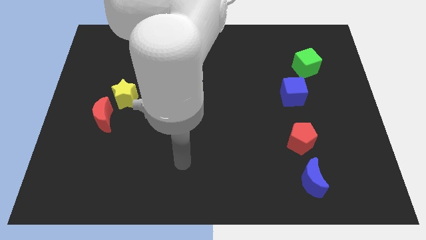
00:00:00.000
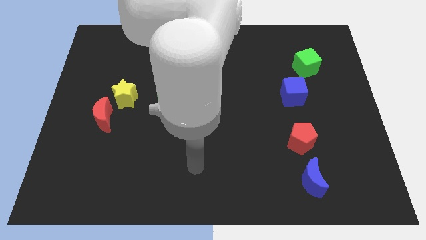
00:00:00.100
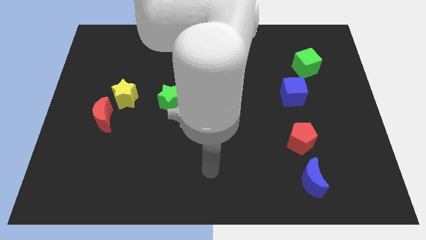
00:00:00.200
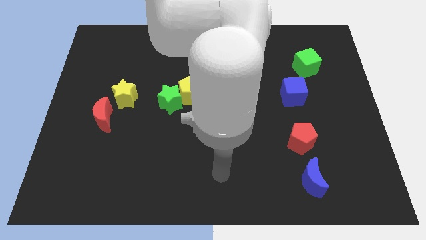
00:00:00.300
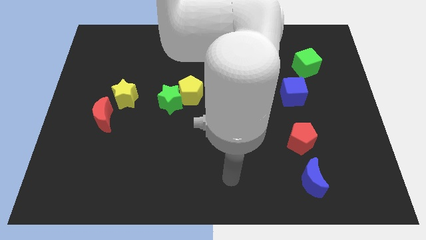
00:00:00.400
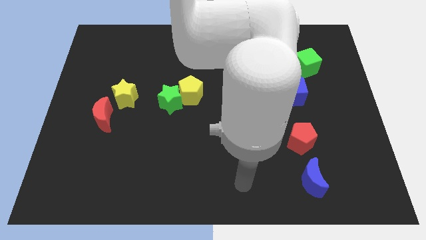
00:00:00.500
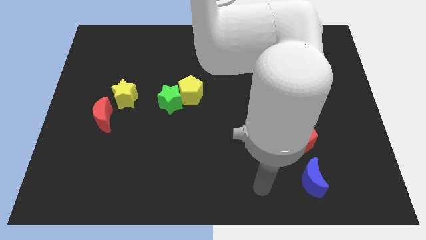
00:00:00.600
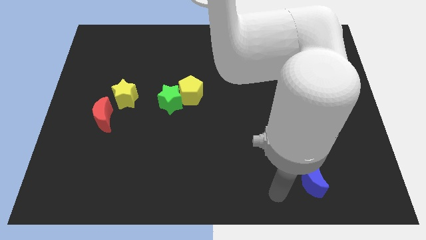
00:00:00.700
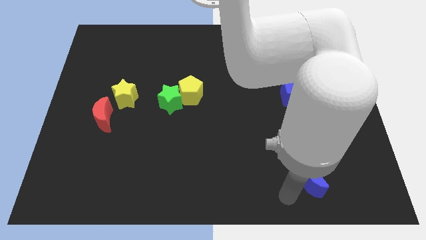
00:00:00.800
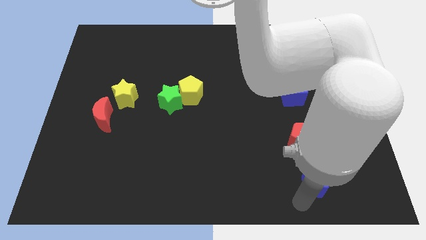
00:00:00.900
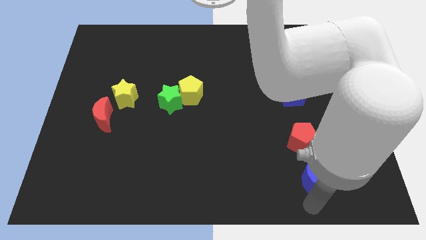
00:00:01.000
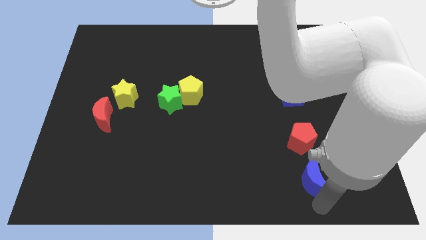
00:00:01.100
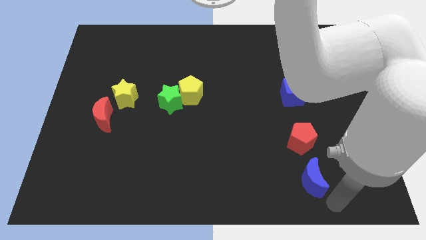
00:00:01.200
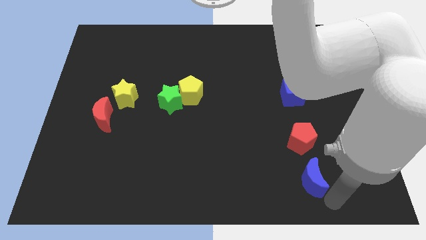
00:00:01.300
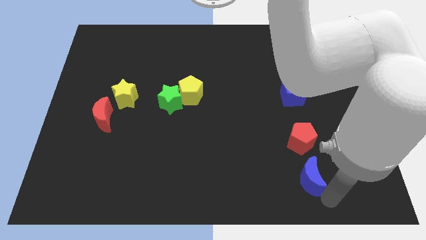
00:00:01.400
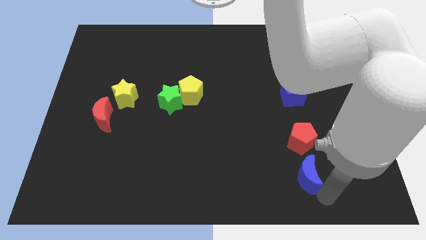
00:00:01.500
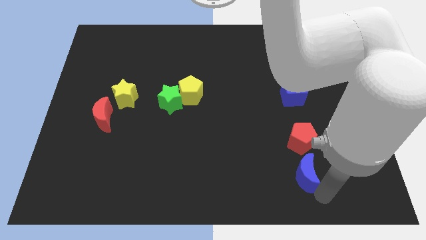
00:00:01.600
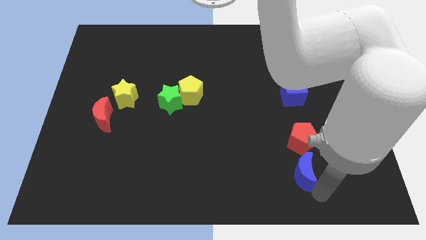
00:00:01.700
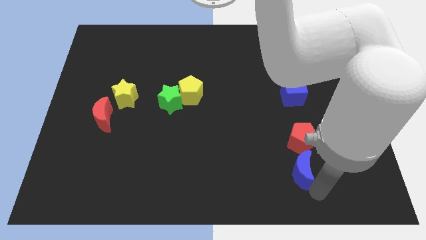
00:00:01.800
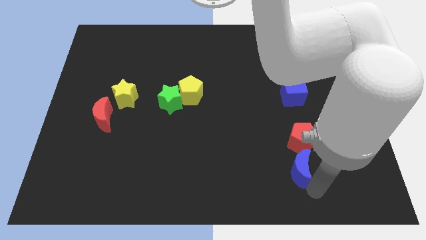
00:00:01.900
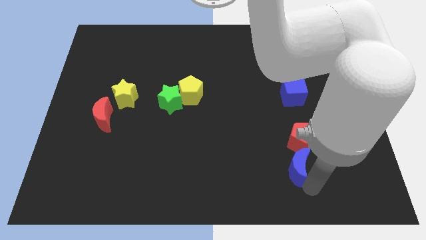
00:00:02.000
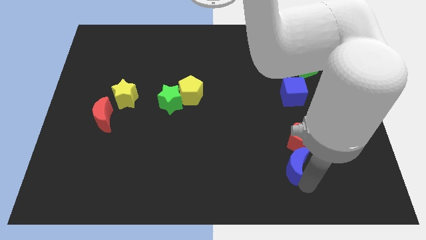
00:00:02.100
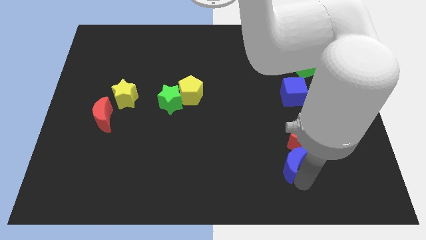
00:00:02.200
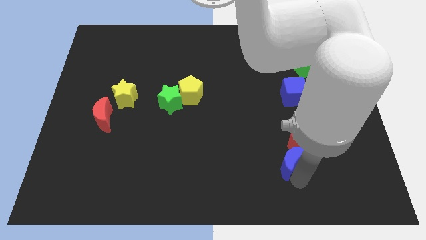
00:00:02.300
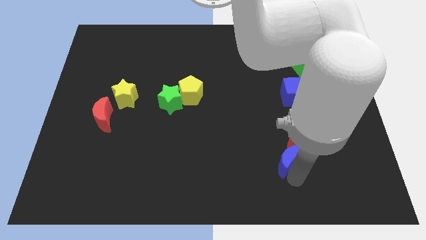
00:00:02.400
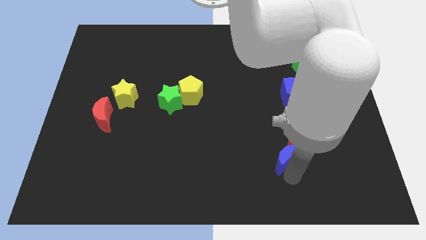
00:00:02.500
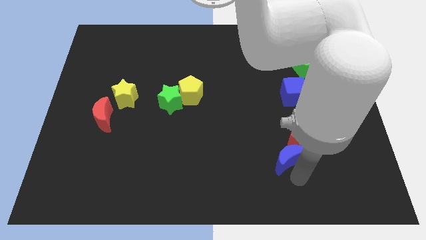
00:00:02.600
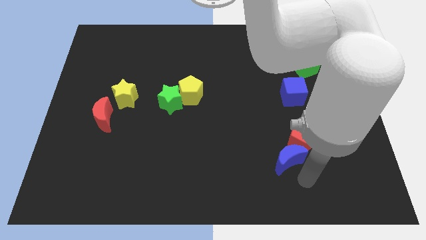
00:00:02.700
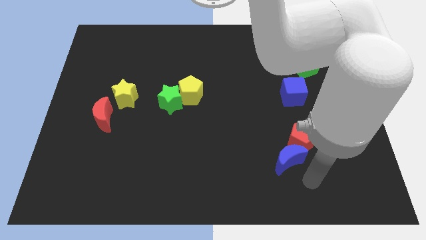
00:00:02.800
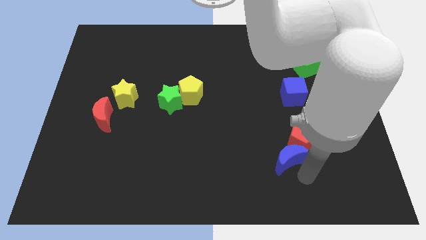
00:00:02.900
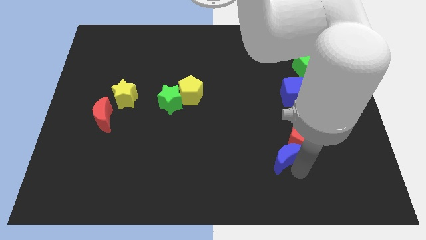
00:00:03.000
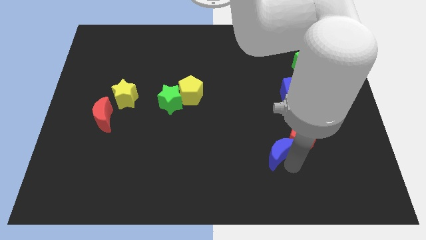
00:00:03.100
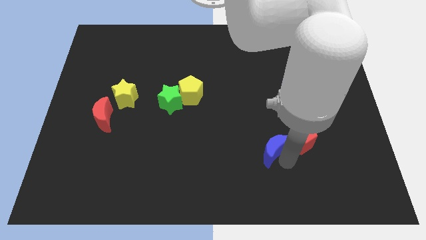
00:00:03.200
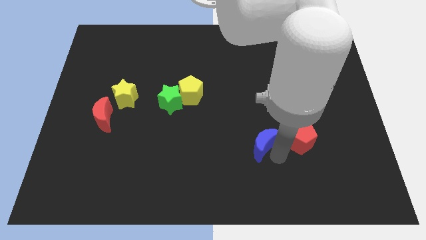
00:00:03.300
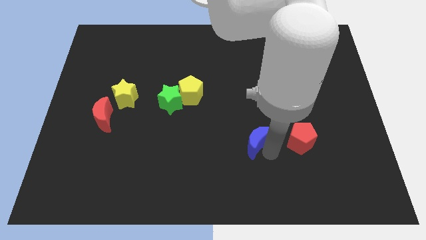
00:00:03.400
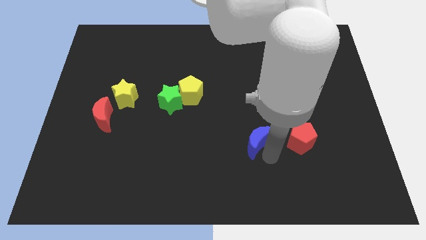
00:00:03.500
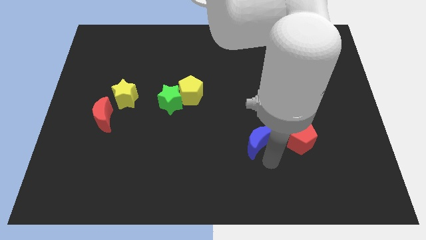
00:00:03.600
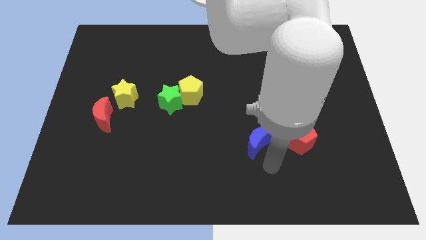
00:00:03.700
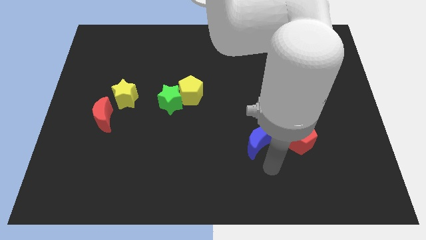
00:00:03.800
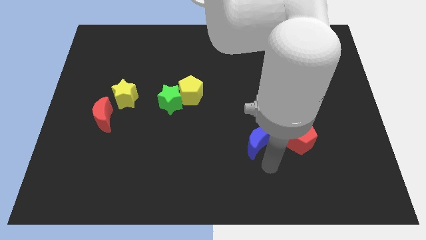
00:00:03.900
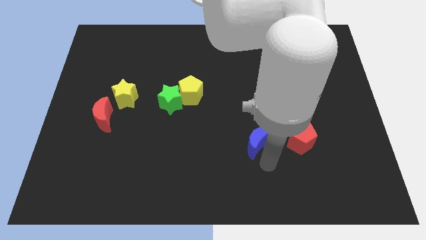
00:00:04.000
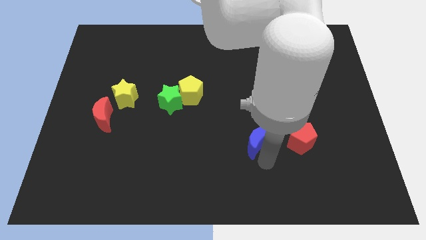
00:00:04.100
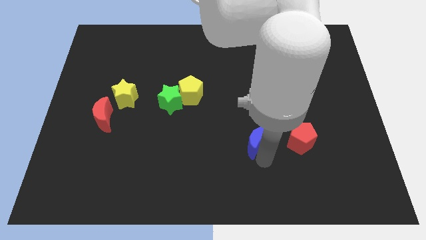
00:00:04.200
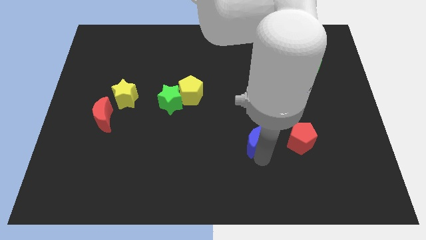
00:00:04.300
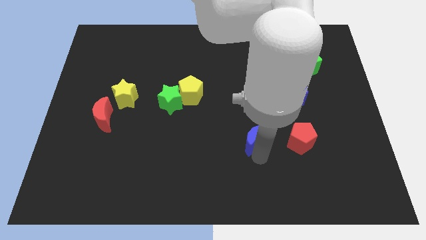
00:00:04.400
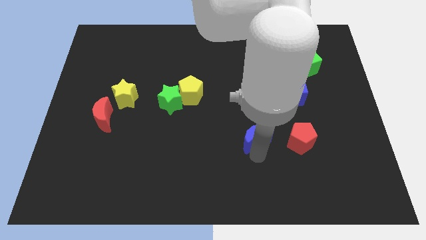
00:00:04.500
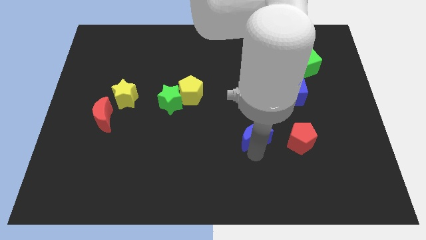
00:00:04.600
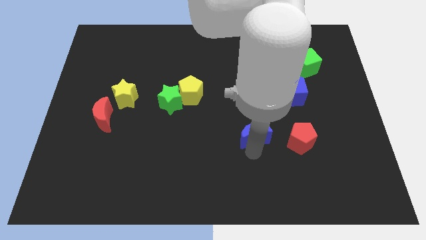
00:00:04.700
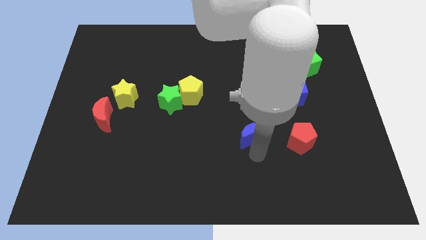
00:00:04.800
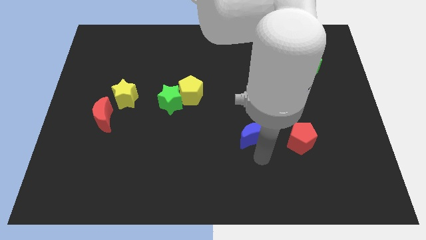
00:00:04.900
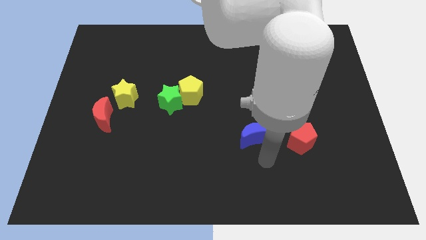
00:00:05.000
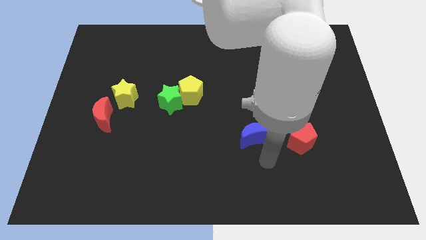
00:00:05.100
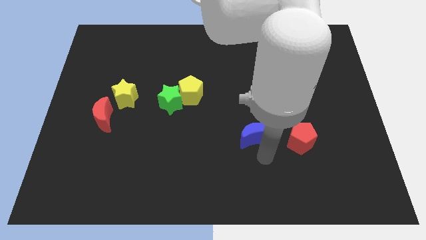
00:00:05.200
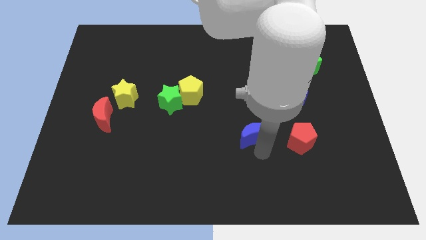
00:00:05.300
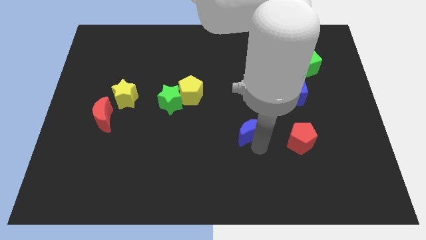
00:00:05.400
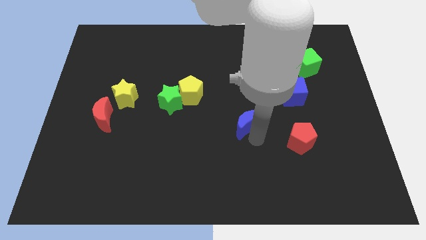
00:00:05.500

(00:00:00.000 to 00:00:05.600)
put the blue moon to the center of the board
